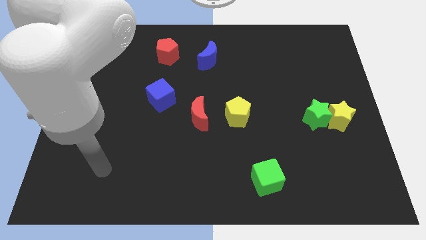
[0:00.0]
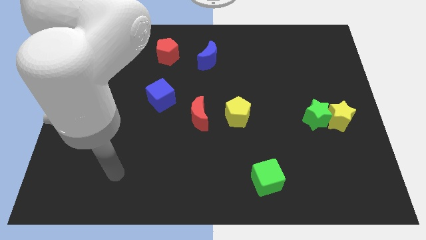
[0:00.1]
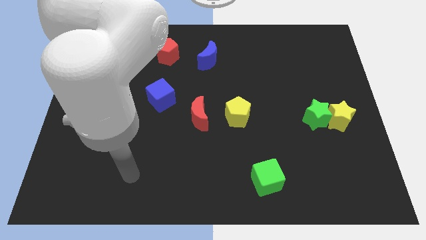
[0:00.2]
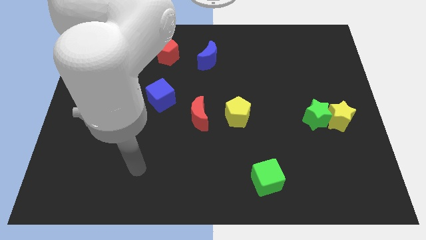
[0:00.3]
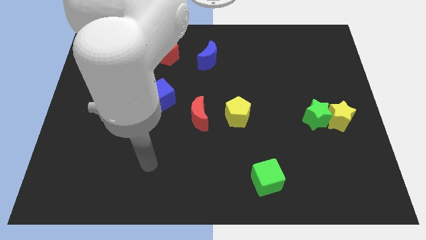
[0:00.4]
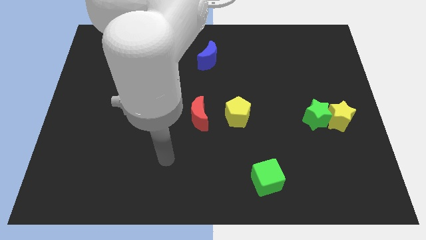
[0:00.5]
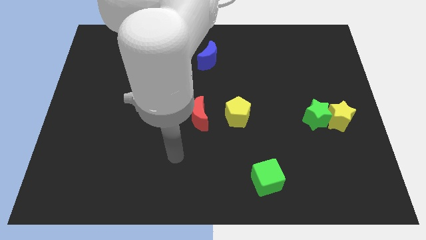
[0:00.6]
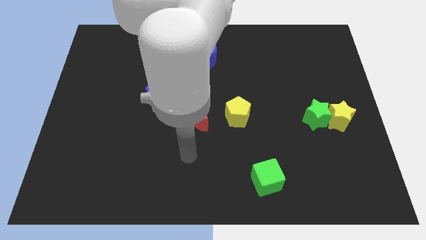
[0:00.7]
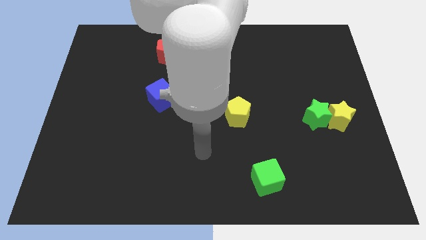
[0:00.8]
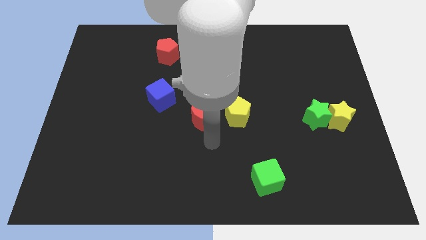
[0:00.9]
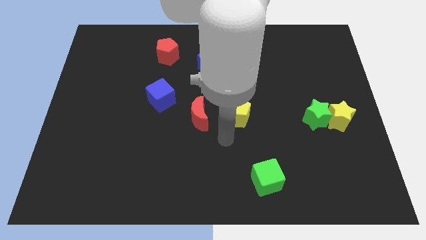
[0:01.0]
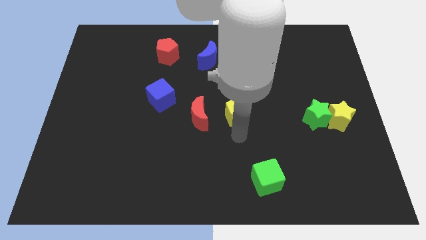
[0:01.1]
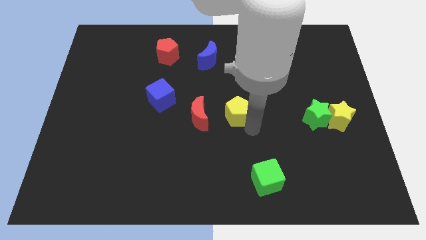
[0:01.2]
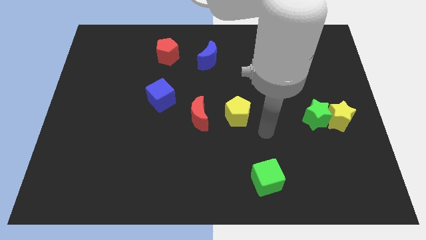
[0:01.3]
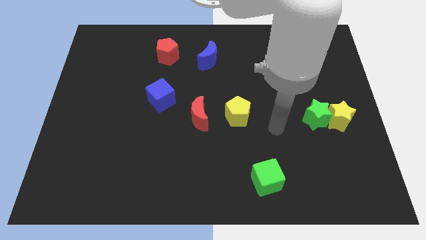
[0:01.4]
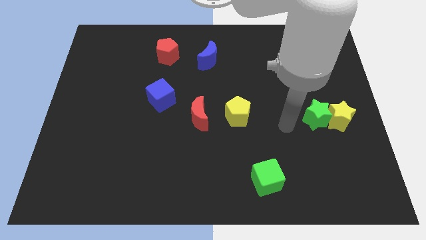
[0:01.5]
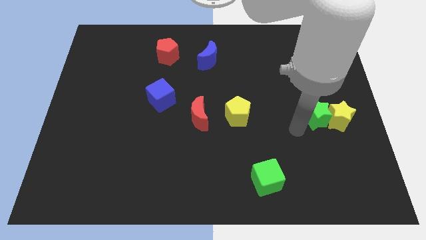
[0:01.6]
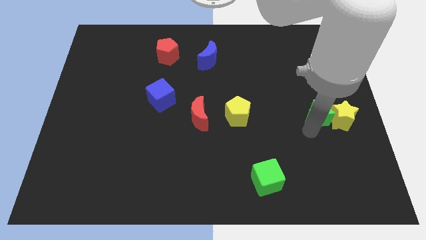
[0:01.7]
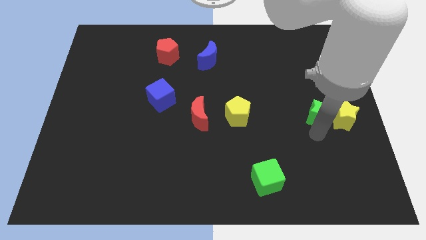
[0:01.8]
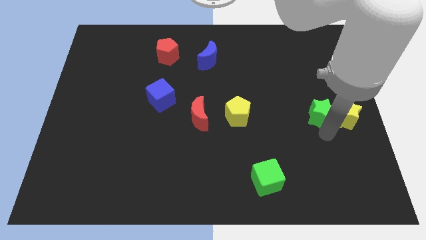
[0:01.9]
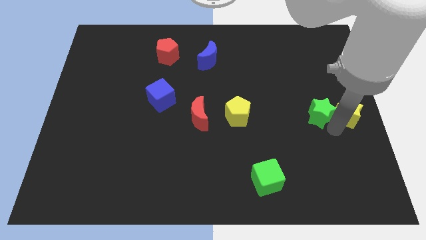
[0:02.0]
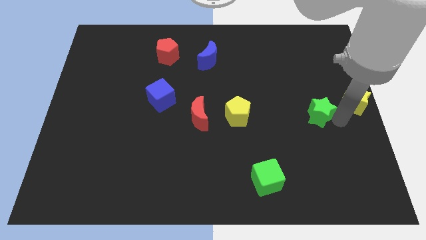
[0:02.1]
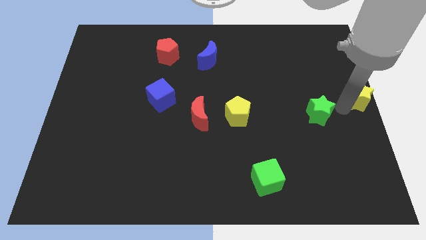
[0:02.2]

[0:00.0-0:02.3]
separate the green star from the yellow star

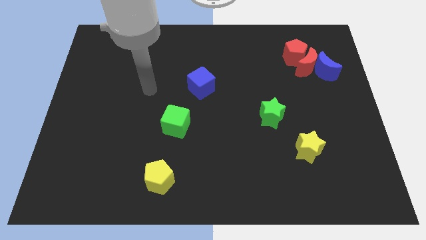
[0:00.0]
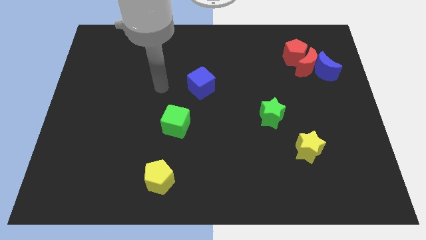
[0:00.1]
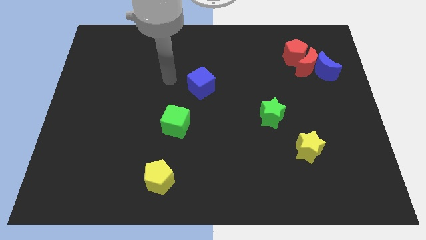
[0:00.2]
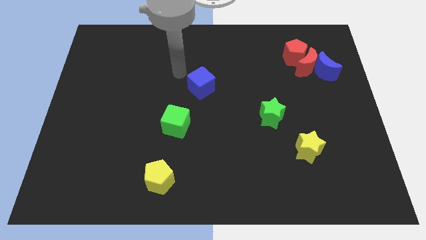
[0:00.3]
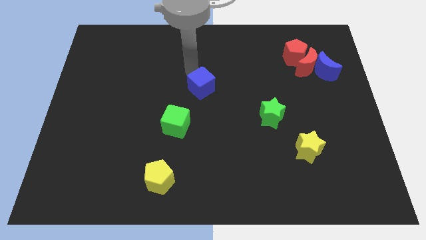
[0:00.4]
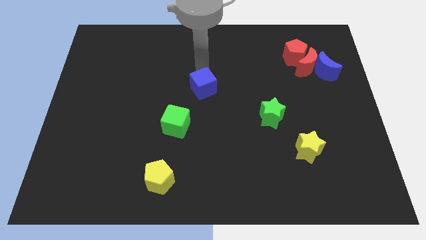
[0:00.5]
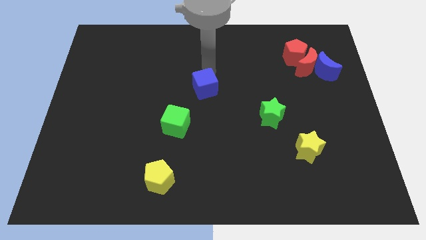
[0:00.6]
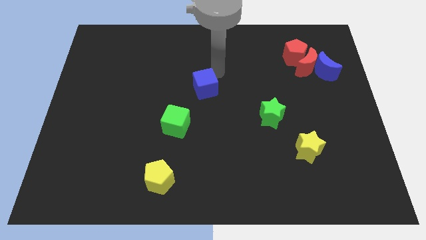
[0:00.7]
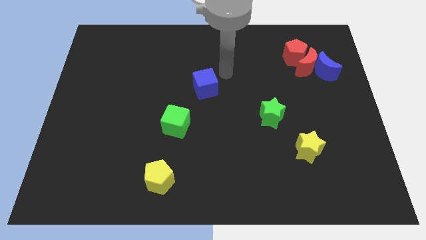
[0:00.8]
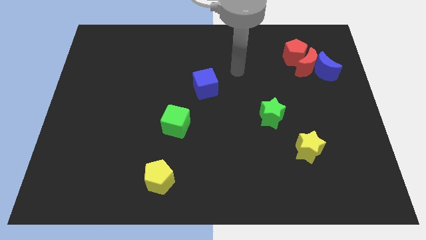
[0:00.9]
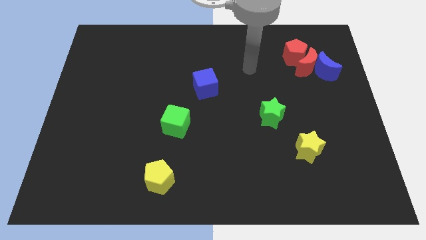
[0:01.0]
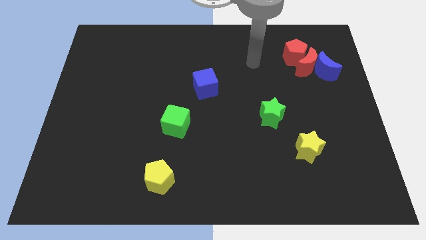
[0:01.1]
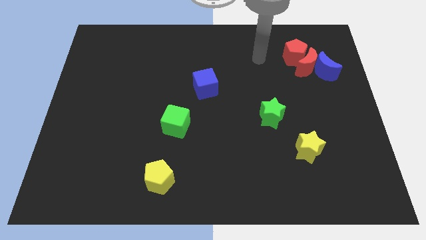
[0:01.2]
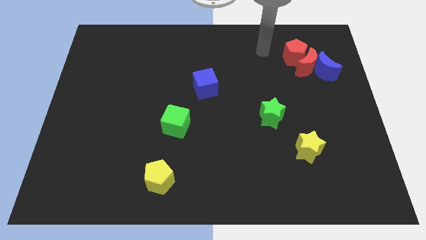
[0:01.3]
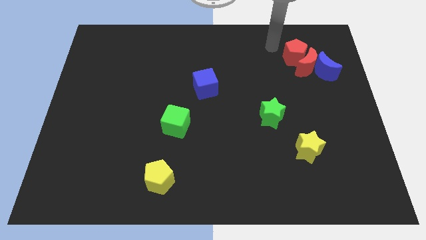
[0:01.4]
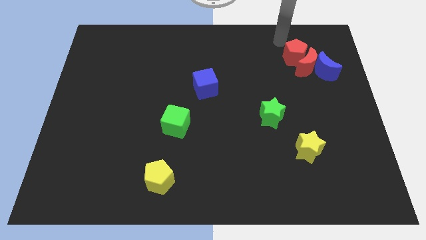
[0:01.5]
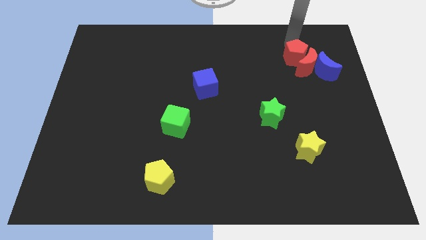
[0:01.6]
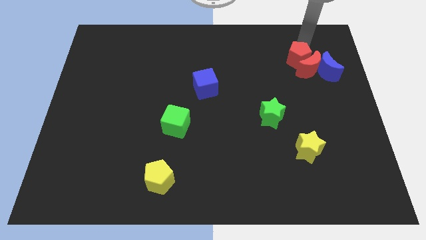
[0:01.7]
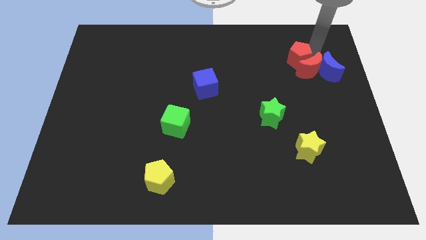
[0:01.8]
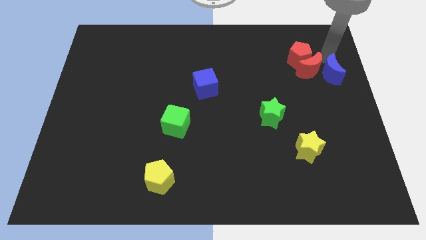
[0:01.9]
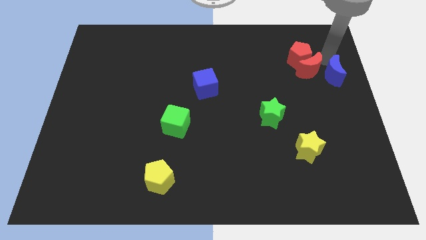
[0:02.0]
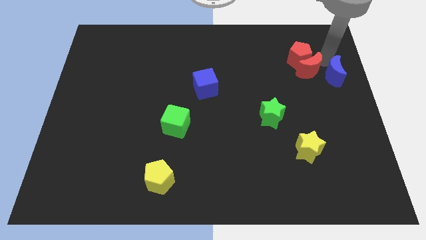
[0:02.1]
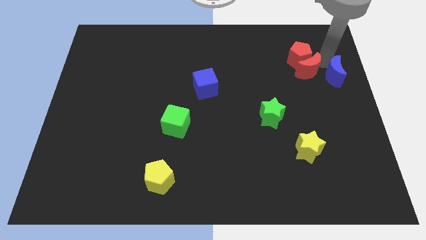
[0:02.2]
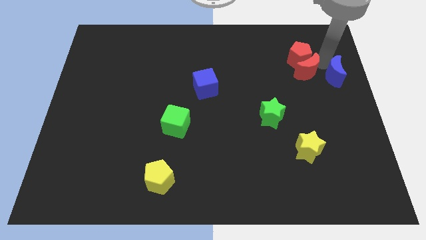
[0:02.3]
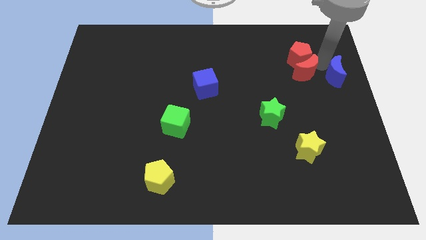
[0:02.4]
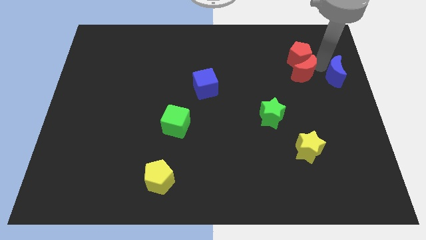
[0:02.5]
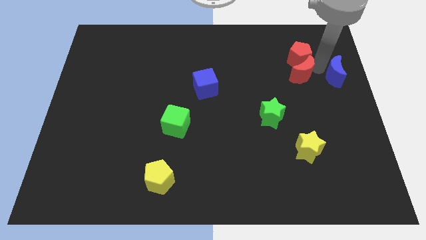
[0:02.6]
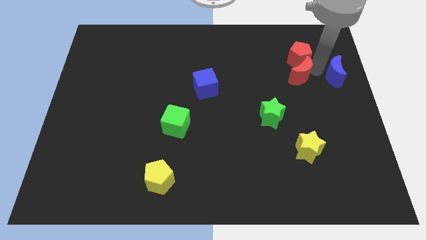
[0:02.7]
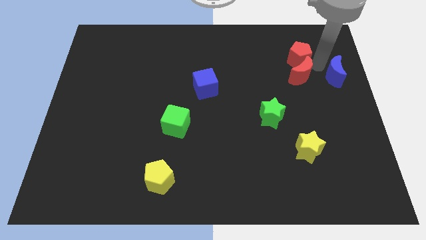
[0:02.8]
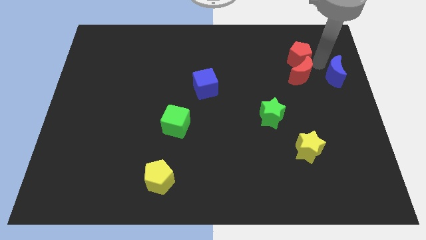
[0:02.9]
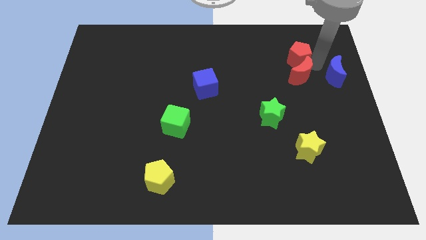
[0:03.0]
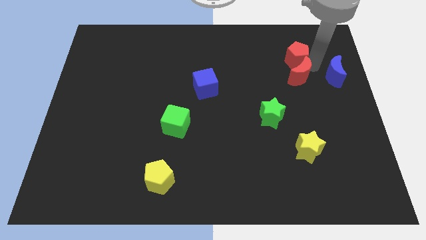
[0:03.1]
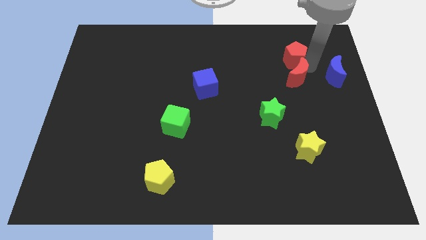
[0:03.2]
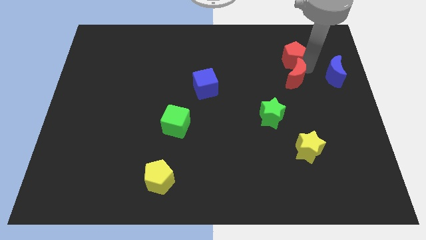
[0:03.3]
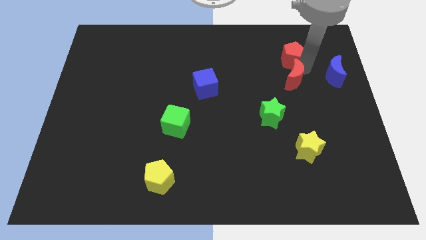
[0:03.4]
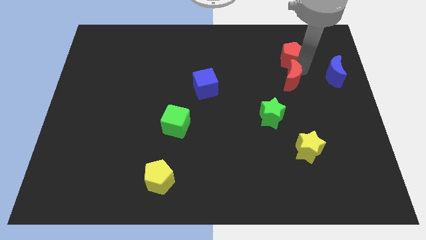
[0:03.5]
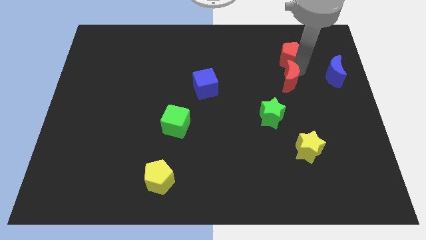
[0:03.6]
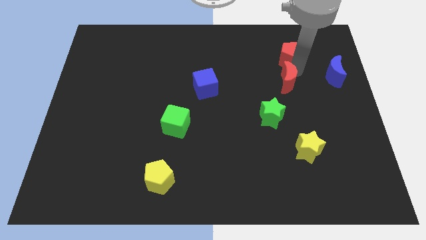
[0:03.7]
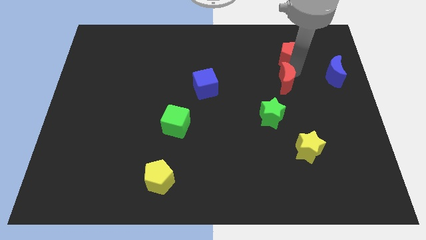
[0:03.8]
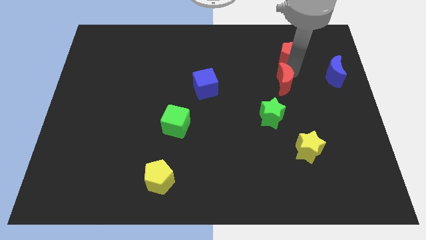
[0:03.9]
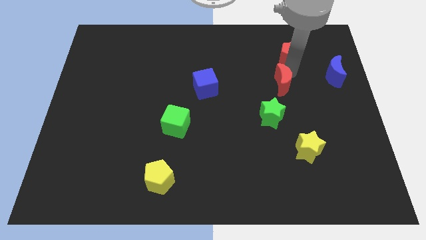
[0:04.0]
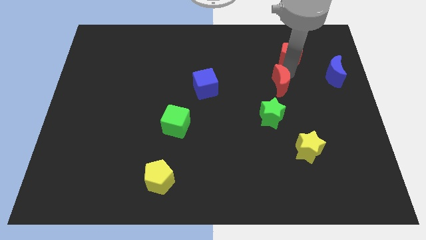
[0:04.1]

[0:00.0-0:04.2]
move the red moon away from the blue moon and red pentagon

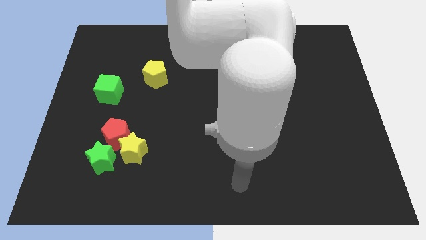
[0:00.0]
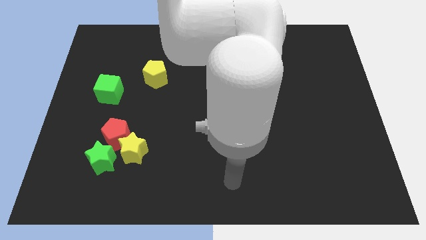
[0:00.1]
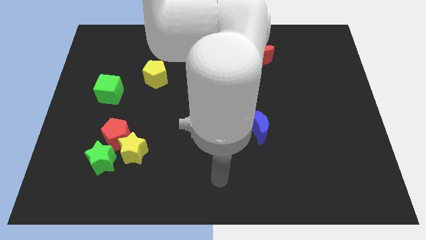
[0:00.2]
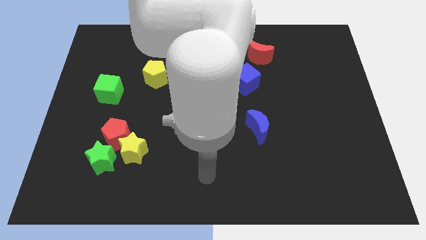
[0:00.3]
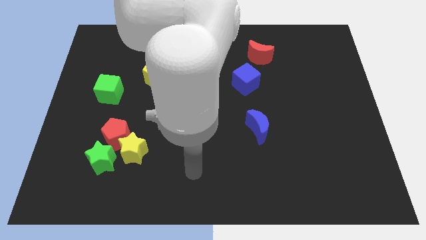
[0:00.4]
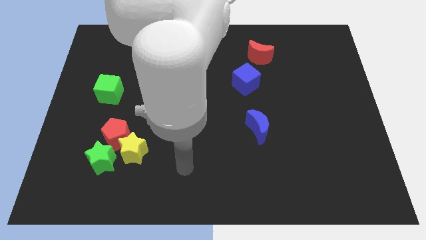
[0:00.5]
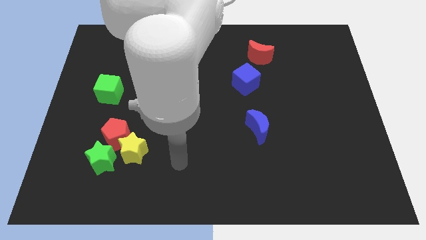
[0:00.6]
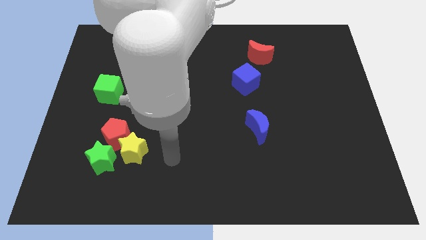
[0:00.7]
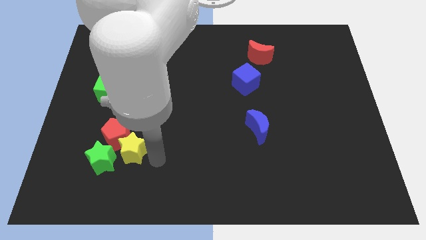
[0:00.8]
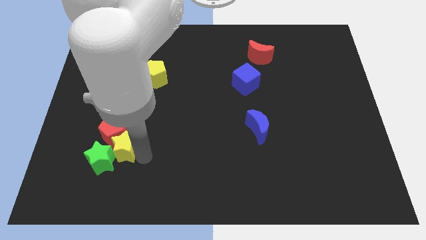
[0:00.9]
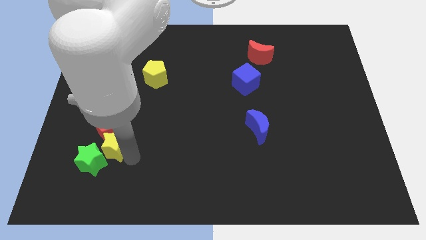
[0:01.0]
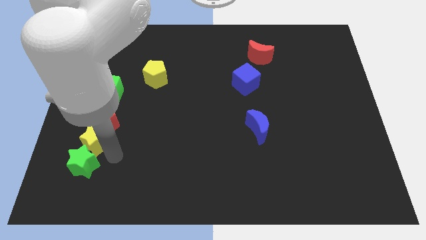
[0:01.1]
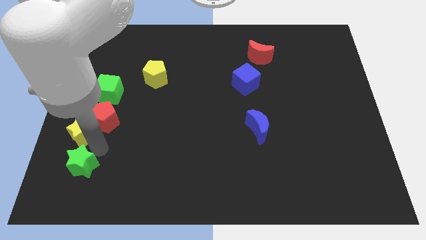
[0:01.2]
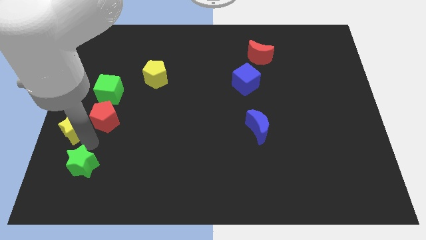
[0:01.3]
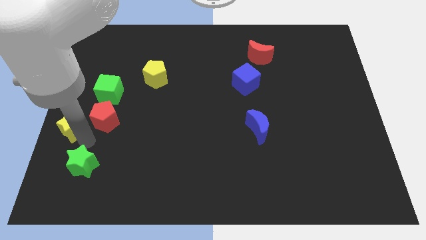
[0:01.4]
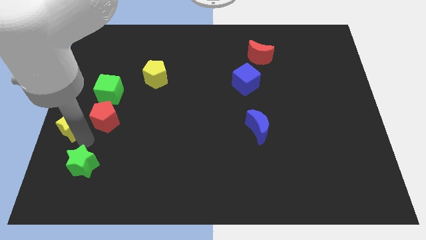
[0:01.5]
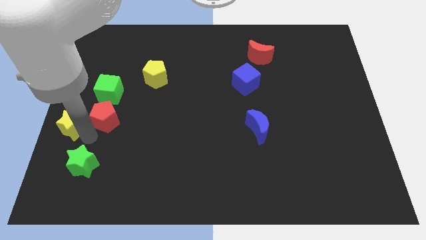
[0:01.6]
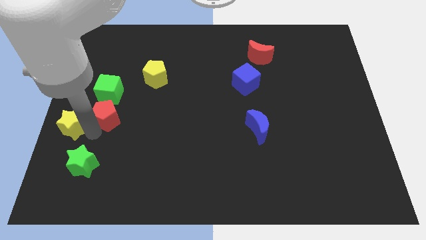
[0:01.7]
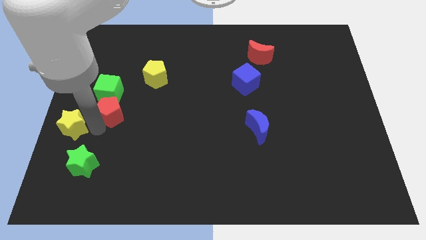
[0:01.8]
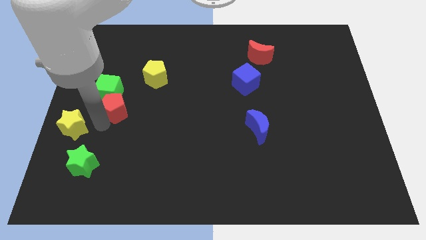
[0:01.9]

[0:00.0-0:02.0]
move the red pentagon away from the yellow star and green star

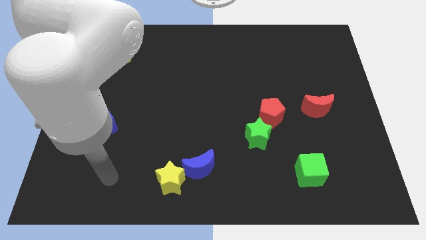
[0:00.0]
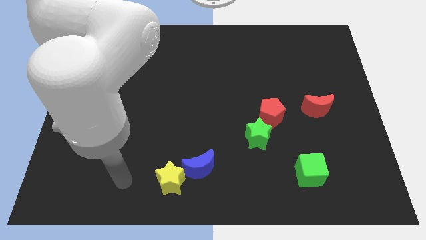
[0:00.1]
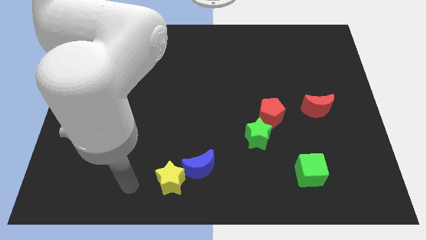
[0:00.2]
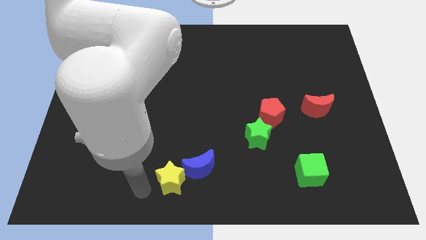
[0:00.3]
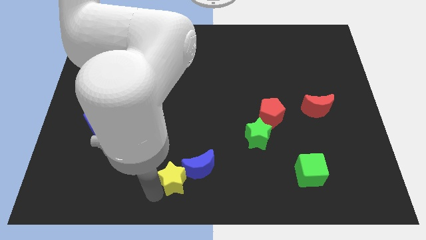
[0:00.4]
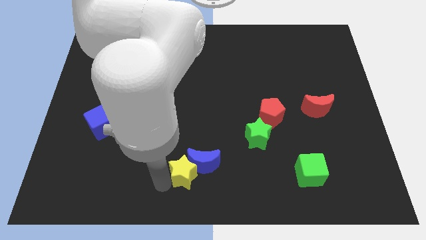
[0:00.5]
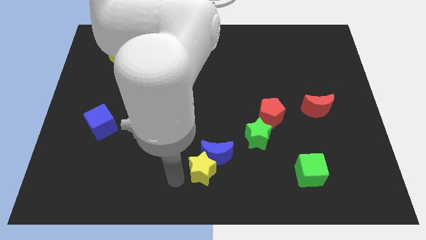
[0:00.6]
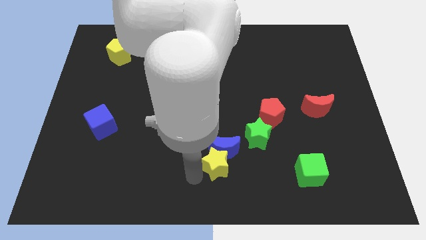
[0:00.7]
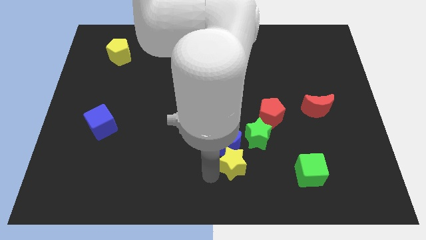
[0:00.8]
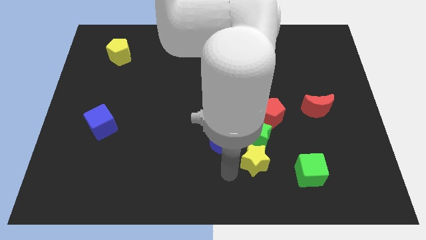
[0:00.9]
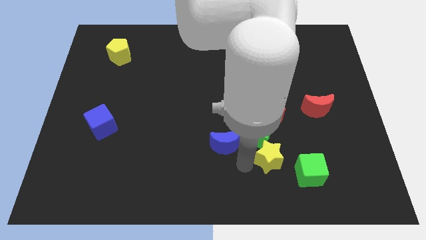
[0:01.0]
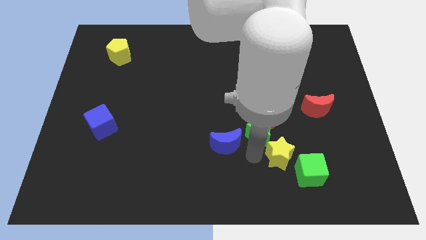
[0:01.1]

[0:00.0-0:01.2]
separate the blue moon from the yellow star
